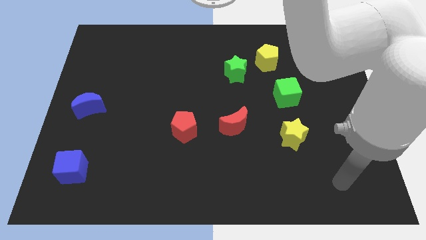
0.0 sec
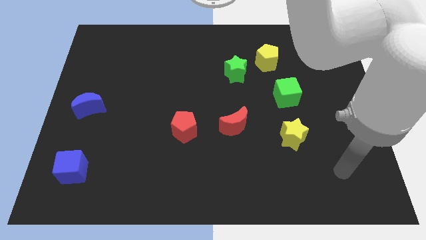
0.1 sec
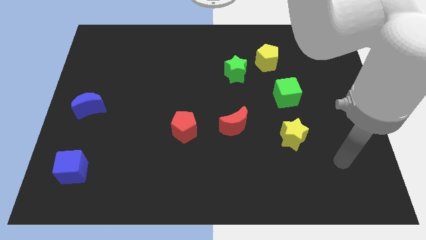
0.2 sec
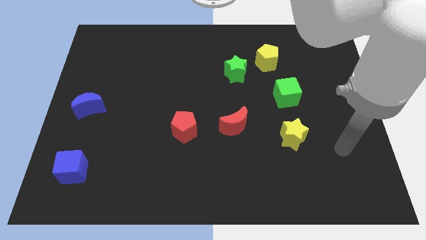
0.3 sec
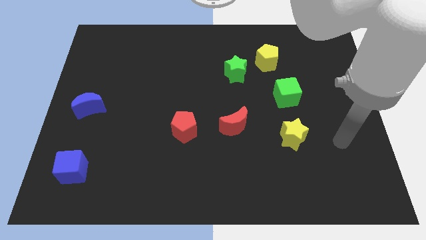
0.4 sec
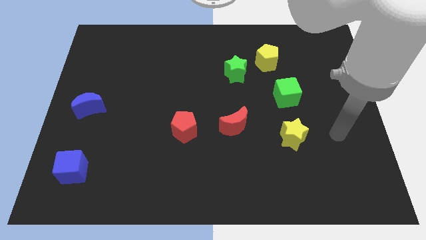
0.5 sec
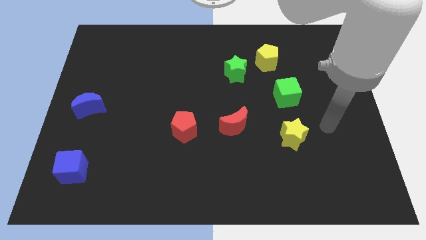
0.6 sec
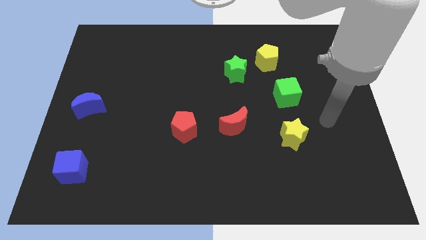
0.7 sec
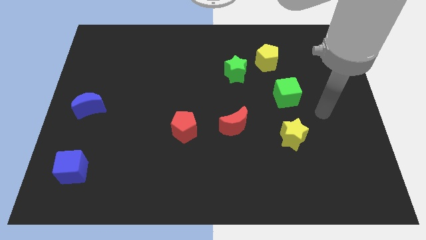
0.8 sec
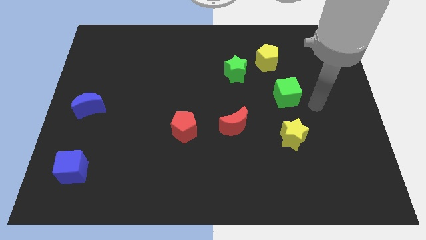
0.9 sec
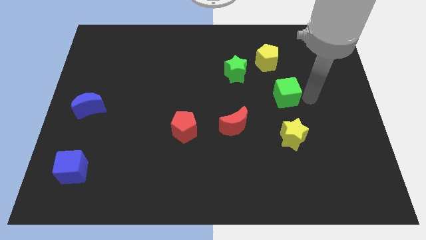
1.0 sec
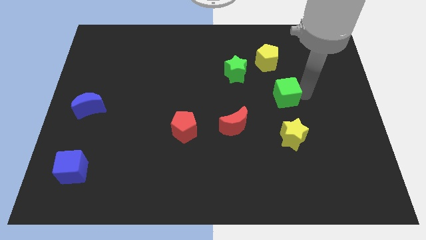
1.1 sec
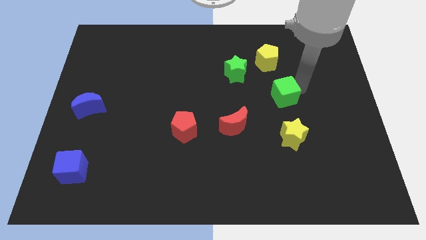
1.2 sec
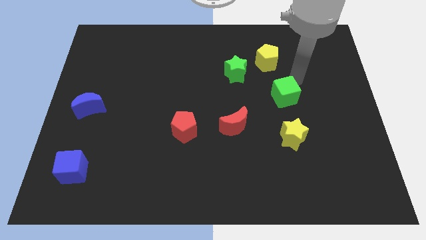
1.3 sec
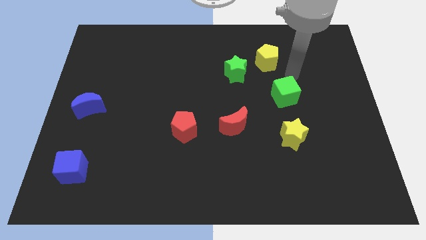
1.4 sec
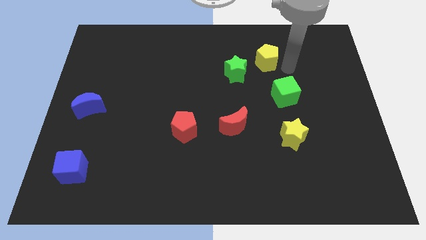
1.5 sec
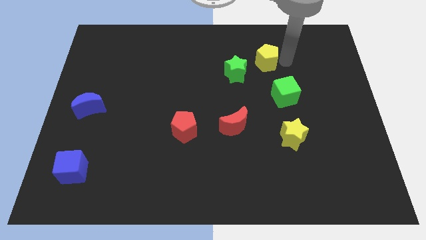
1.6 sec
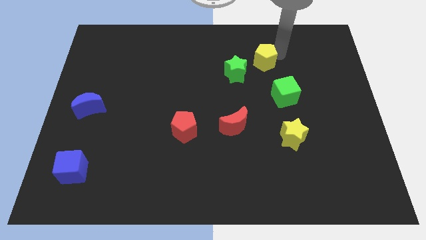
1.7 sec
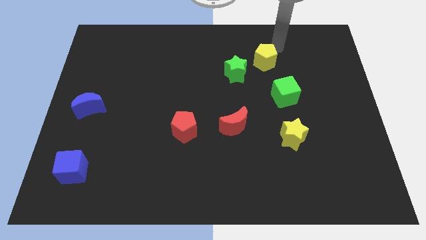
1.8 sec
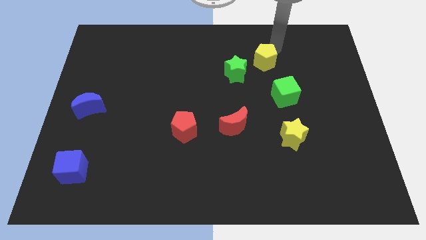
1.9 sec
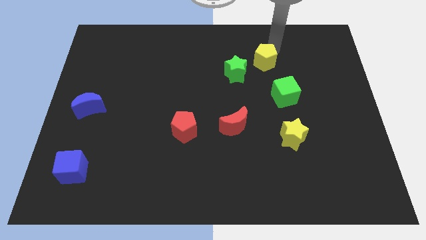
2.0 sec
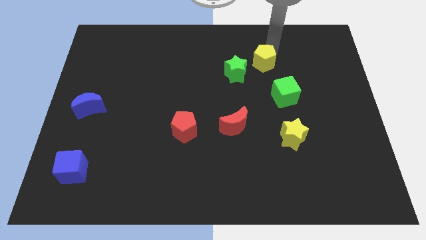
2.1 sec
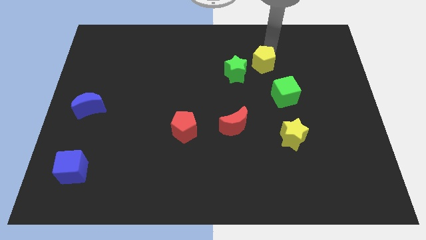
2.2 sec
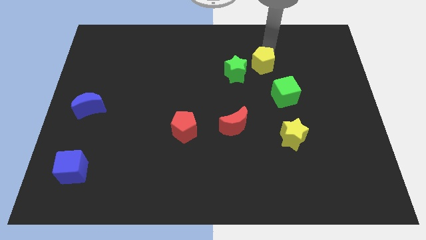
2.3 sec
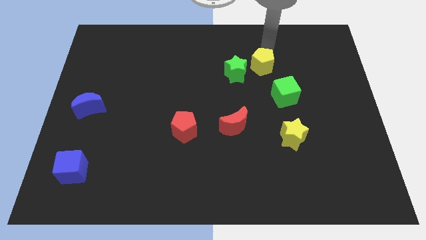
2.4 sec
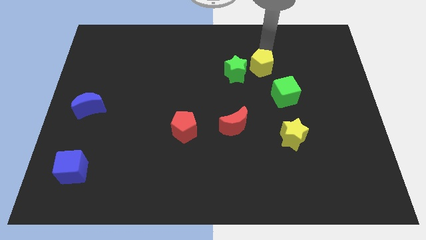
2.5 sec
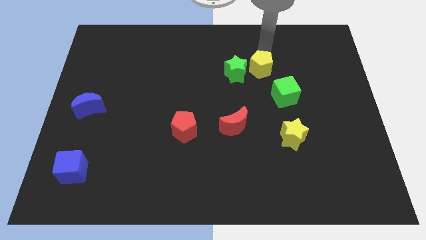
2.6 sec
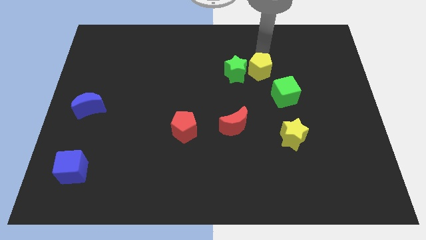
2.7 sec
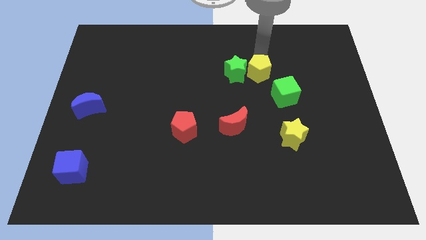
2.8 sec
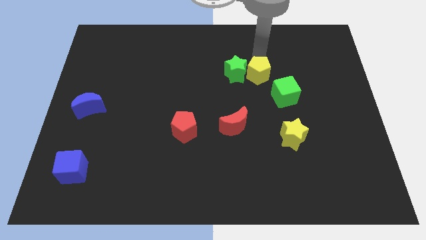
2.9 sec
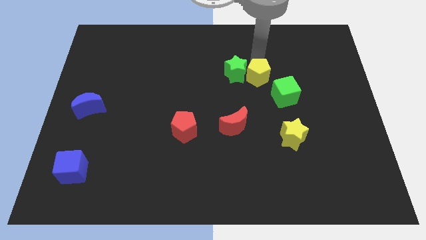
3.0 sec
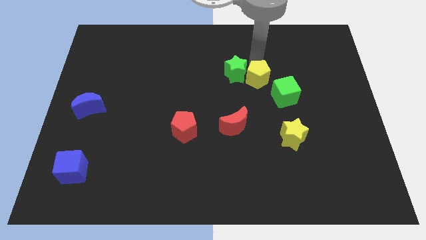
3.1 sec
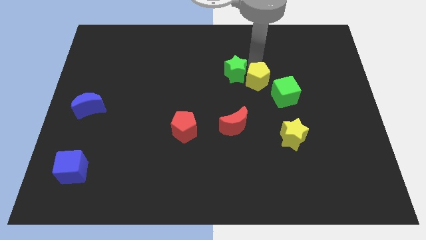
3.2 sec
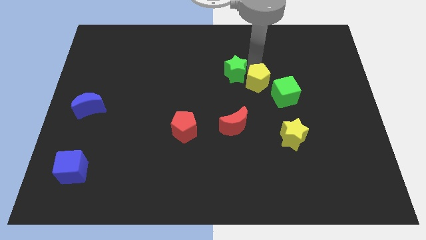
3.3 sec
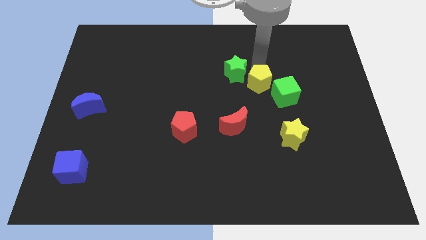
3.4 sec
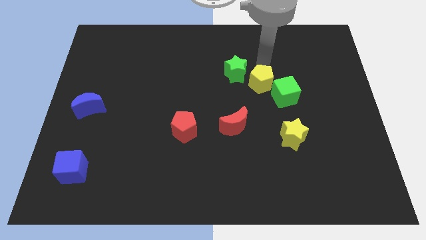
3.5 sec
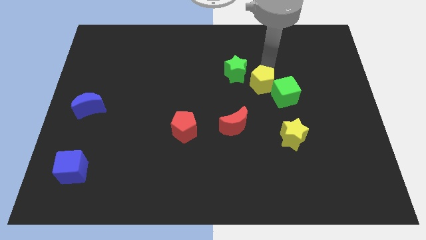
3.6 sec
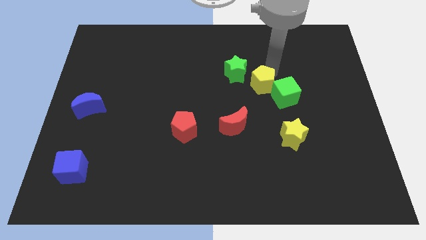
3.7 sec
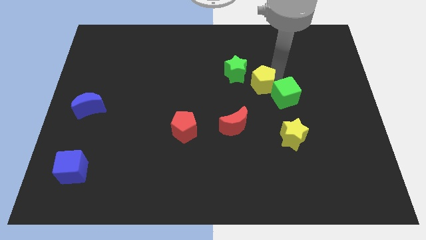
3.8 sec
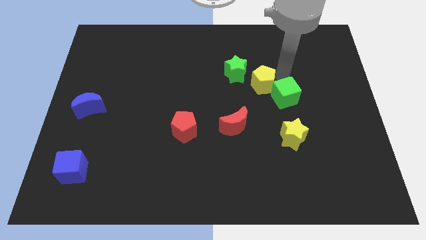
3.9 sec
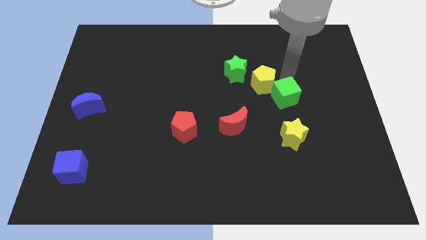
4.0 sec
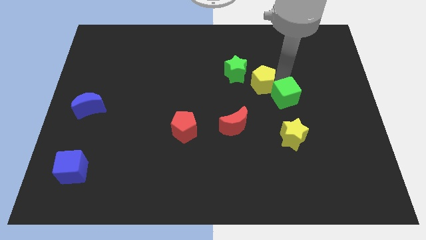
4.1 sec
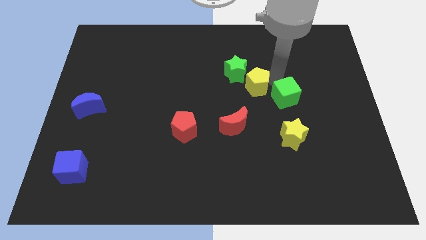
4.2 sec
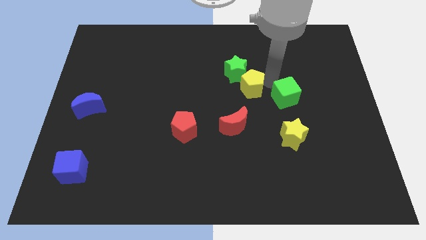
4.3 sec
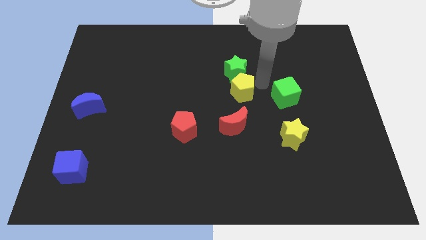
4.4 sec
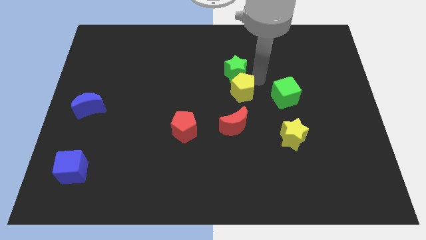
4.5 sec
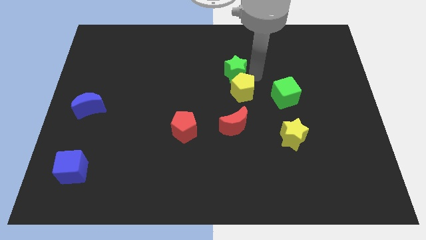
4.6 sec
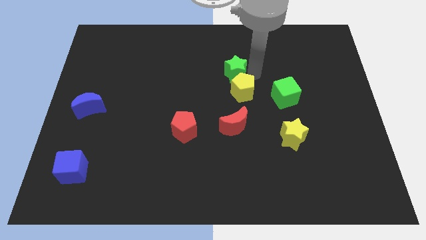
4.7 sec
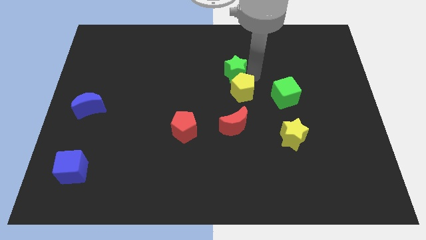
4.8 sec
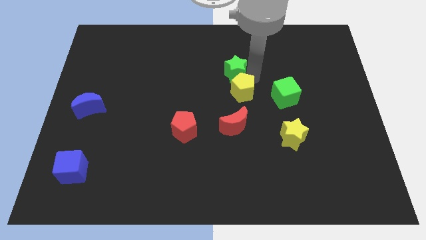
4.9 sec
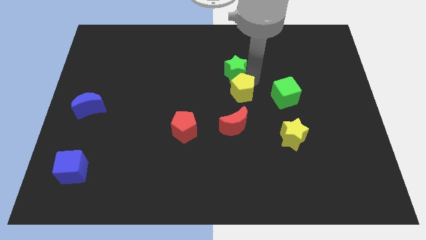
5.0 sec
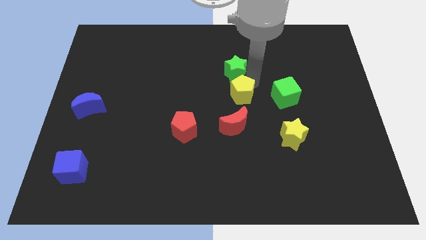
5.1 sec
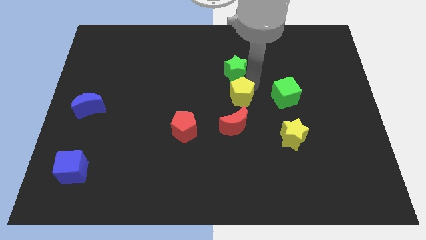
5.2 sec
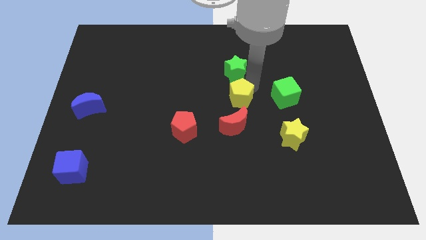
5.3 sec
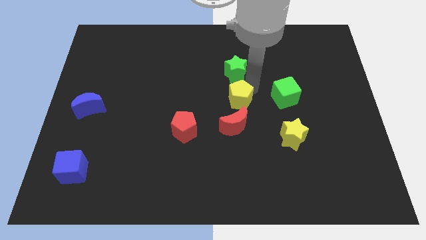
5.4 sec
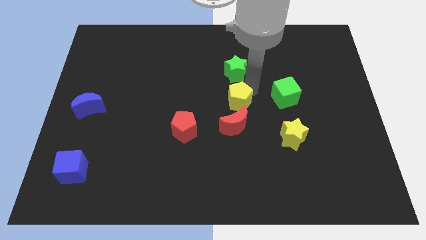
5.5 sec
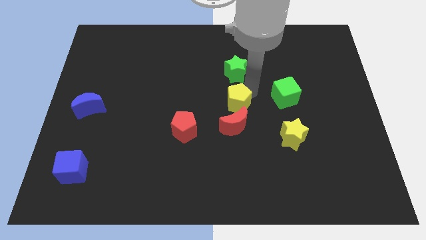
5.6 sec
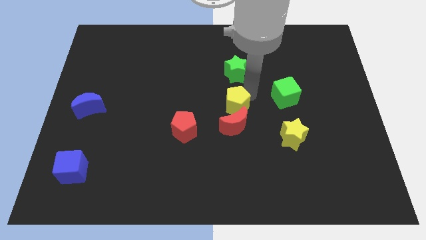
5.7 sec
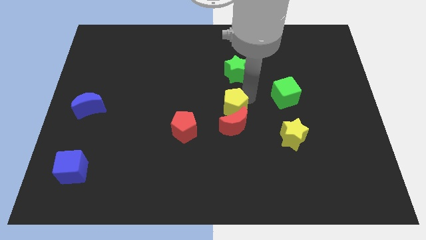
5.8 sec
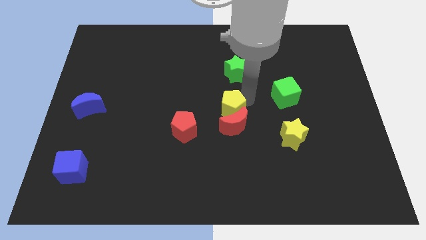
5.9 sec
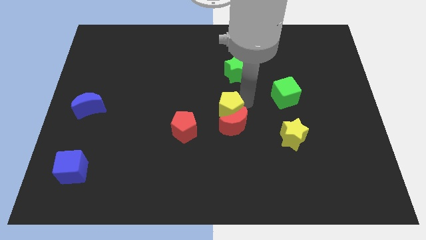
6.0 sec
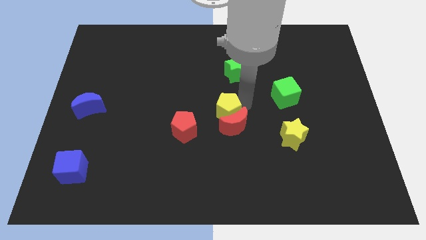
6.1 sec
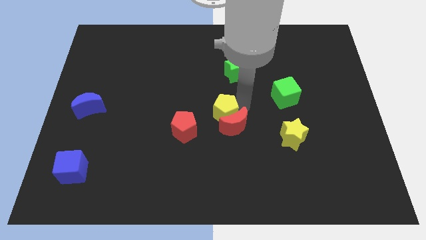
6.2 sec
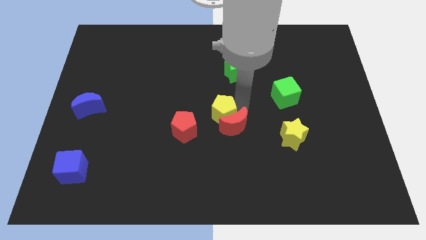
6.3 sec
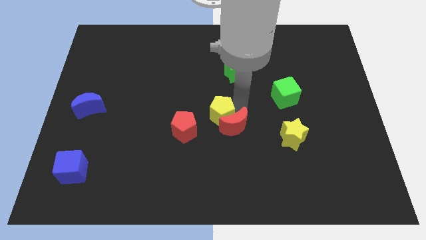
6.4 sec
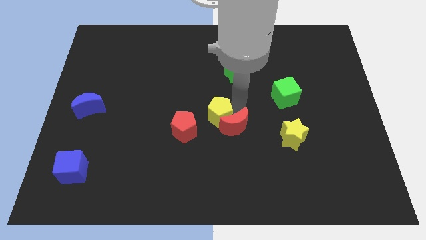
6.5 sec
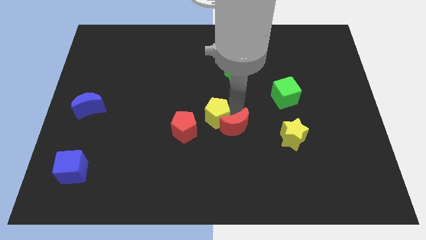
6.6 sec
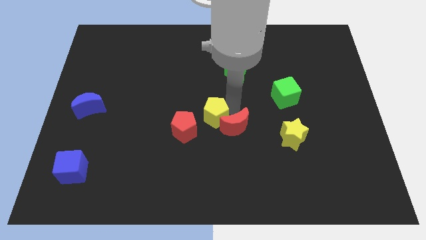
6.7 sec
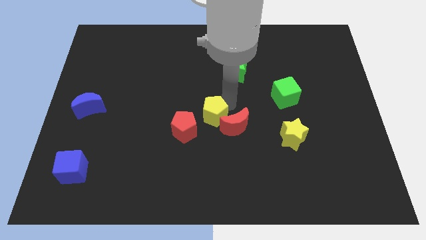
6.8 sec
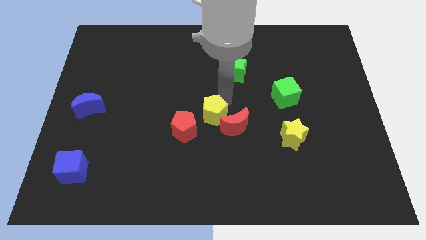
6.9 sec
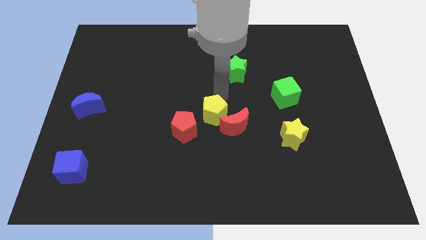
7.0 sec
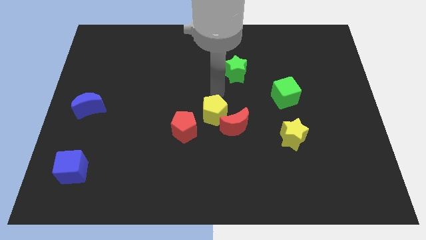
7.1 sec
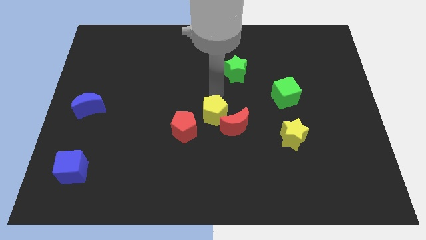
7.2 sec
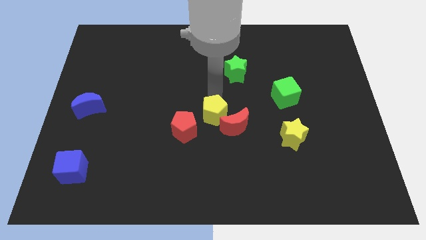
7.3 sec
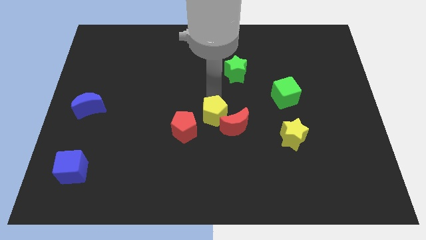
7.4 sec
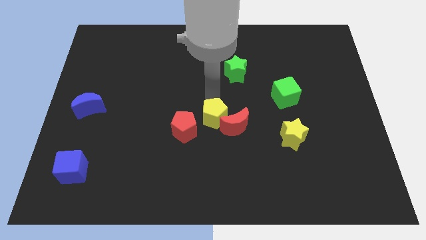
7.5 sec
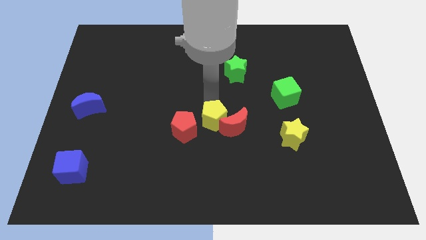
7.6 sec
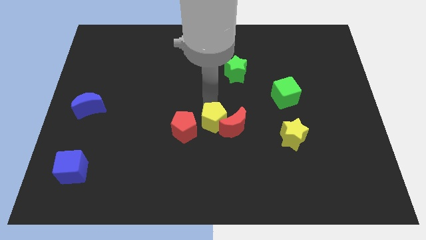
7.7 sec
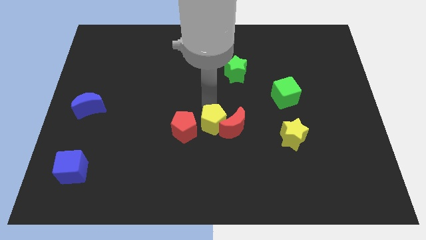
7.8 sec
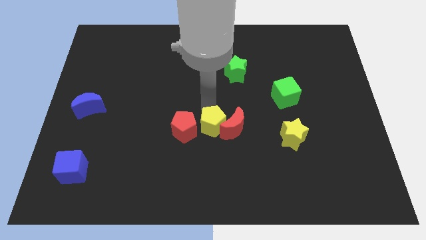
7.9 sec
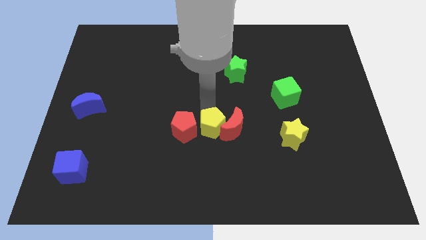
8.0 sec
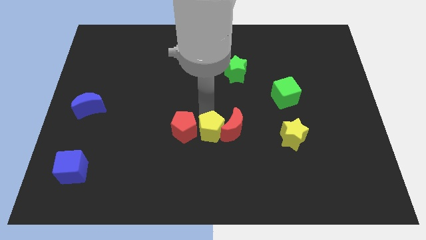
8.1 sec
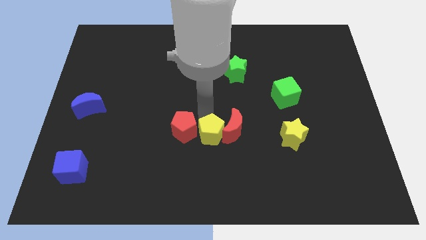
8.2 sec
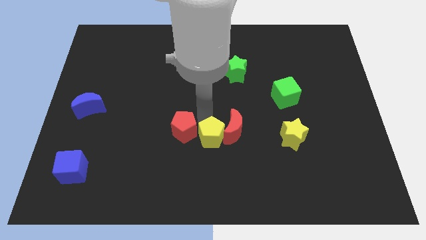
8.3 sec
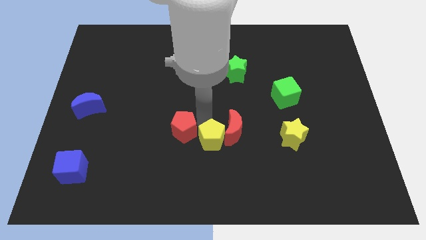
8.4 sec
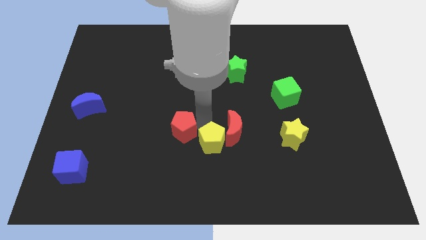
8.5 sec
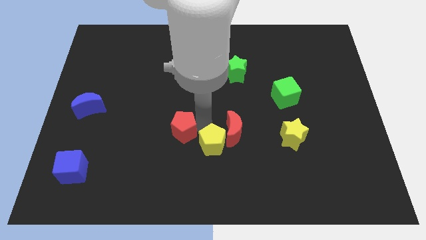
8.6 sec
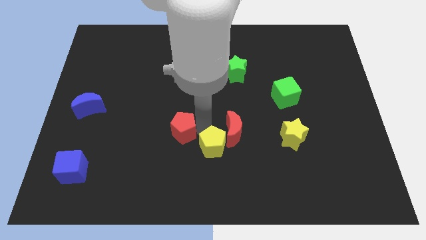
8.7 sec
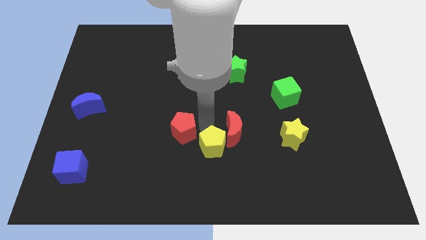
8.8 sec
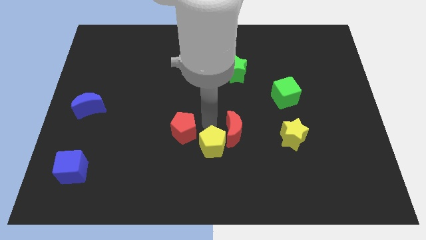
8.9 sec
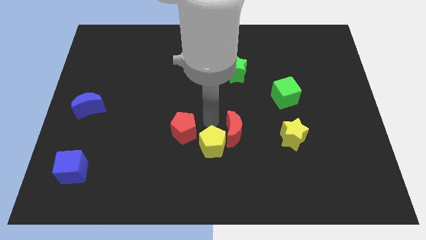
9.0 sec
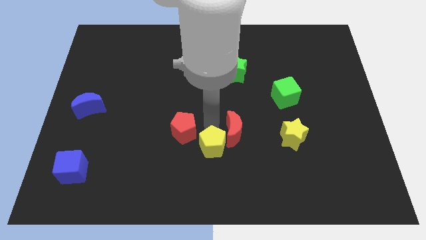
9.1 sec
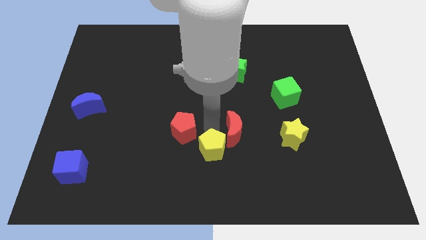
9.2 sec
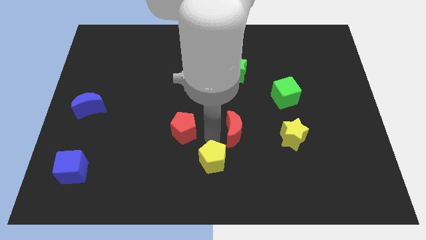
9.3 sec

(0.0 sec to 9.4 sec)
put the yellow pentagon to the bottom side
